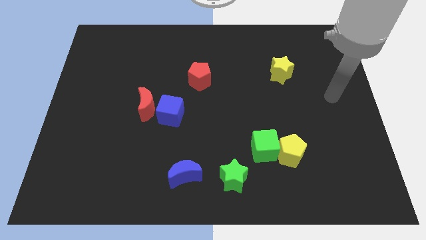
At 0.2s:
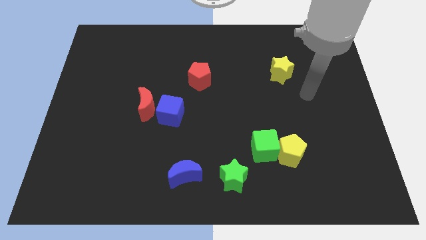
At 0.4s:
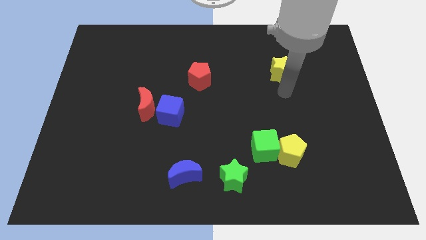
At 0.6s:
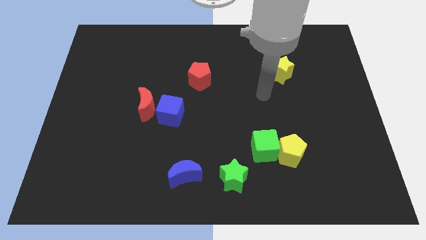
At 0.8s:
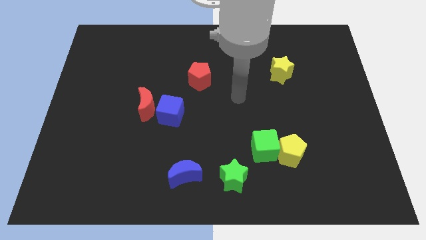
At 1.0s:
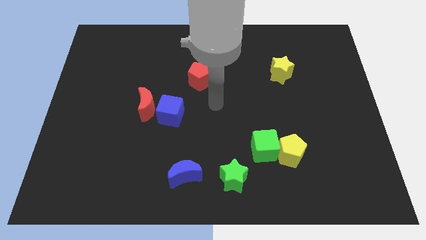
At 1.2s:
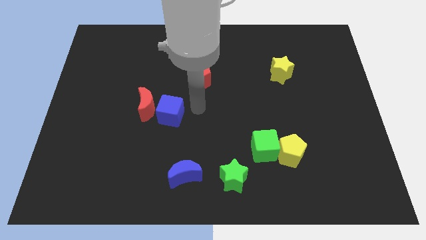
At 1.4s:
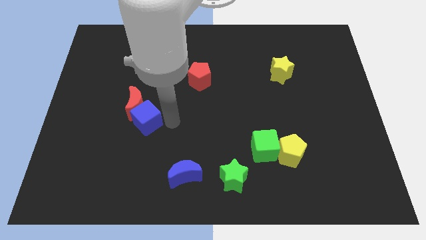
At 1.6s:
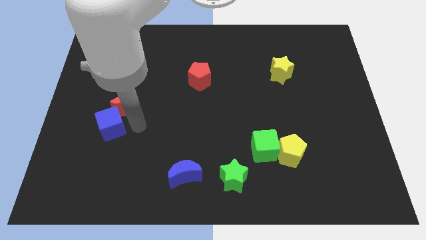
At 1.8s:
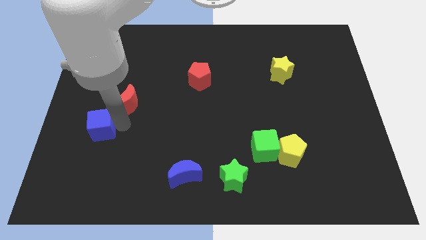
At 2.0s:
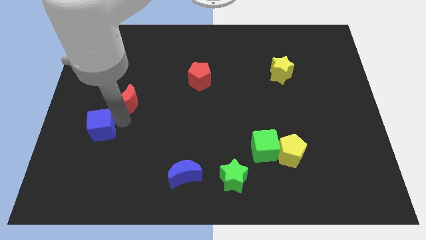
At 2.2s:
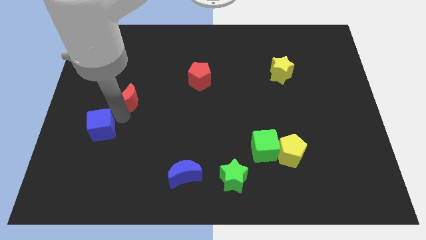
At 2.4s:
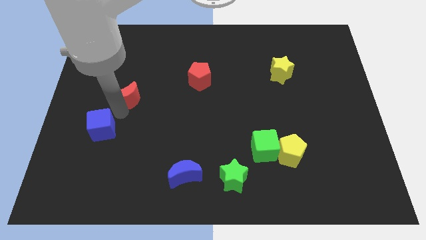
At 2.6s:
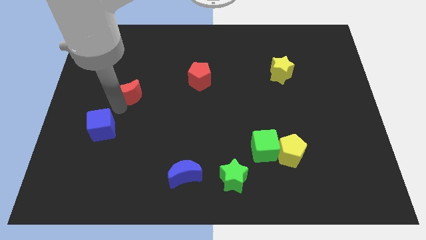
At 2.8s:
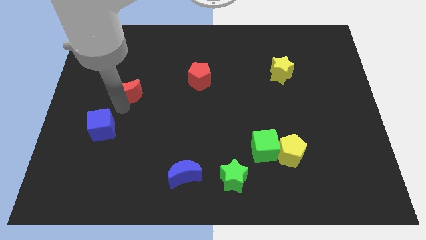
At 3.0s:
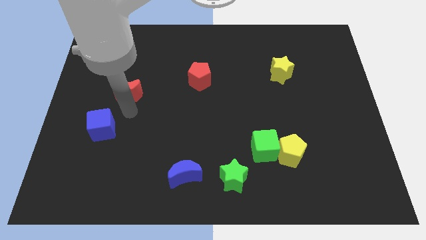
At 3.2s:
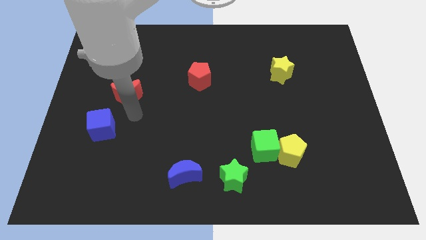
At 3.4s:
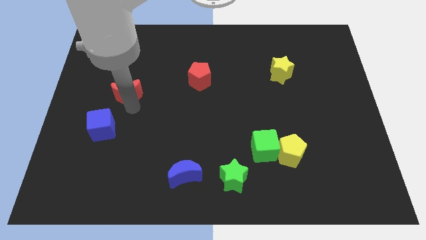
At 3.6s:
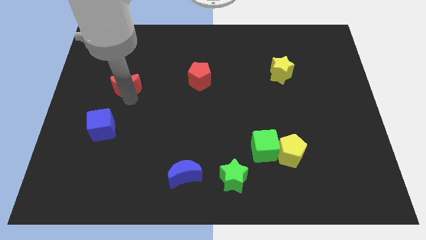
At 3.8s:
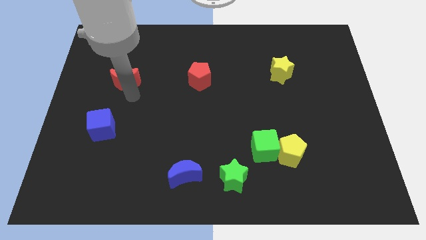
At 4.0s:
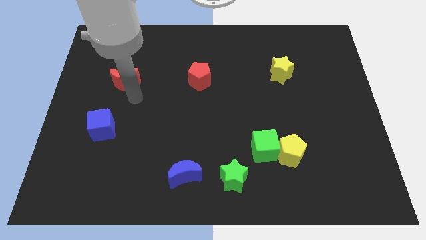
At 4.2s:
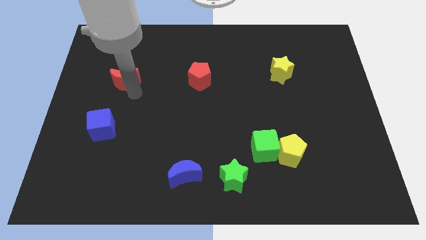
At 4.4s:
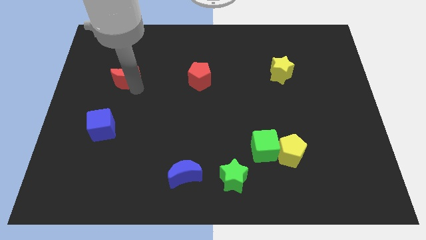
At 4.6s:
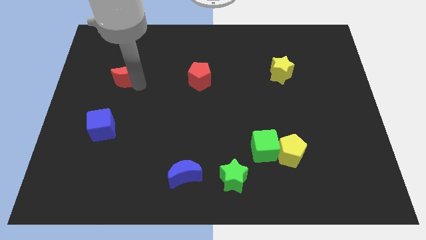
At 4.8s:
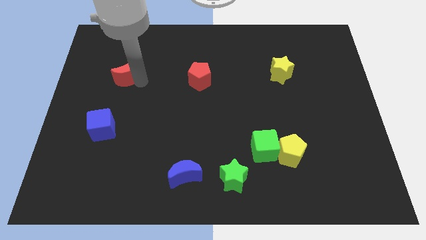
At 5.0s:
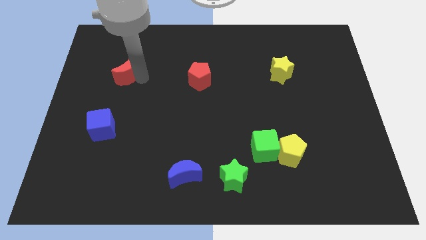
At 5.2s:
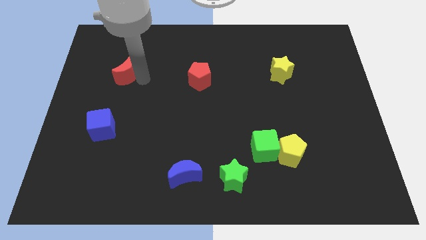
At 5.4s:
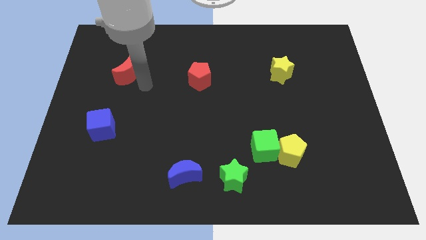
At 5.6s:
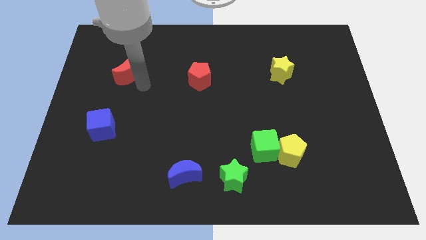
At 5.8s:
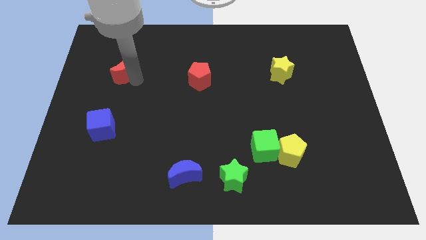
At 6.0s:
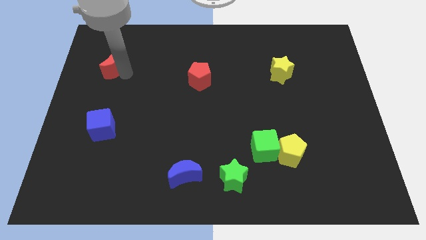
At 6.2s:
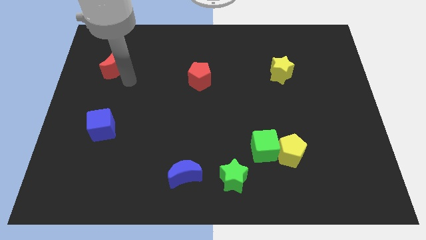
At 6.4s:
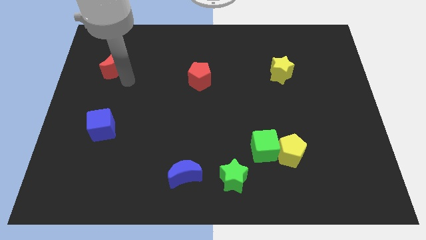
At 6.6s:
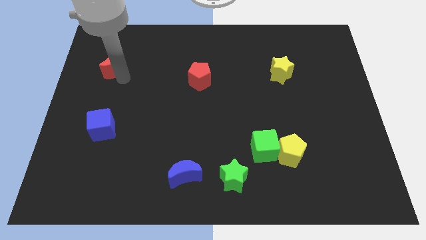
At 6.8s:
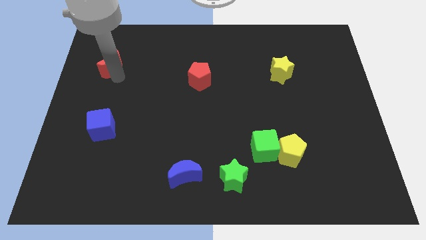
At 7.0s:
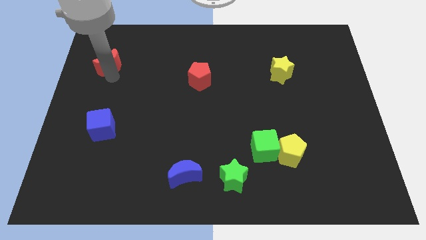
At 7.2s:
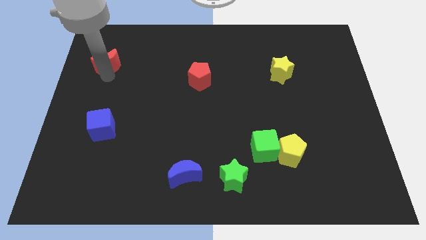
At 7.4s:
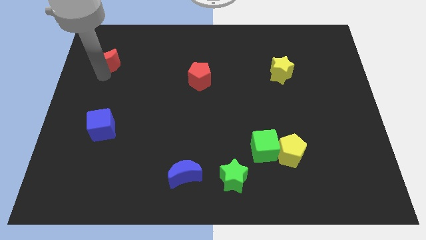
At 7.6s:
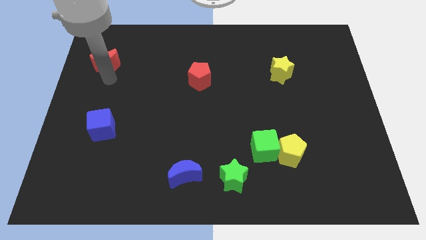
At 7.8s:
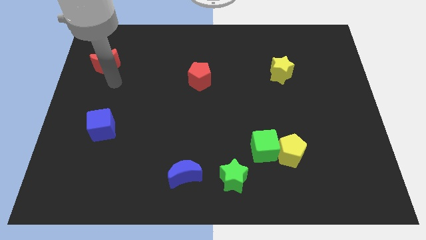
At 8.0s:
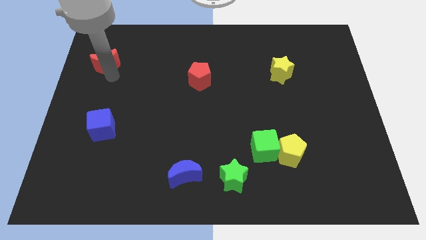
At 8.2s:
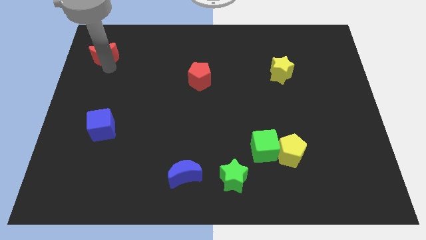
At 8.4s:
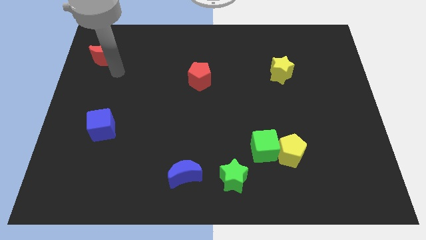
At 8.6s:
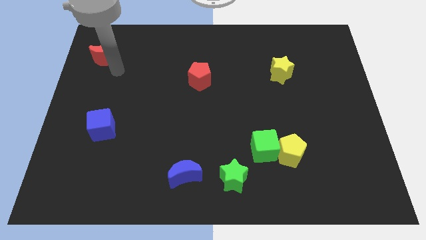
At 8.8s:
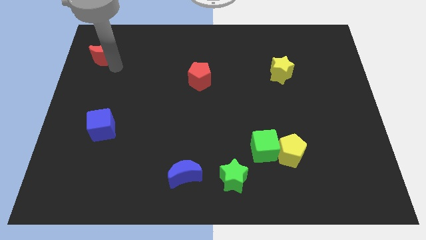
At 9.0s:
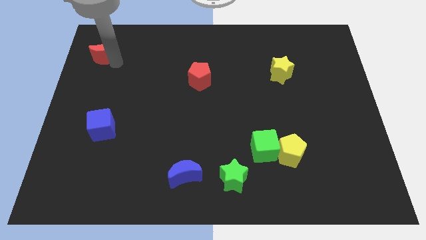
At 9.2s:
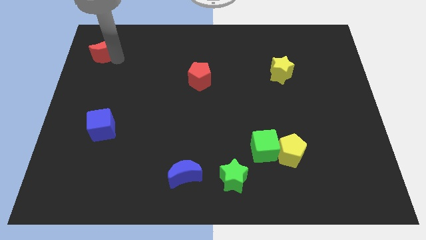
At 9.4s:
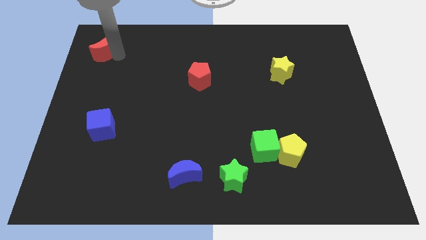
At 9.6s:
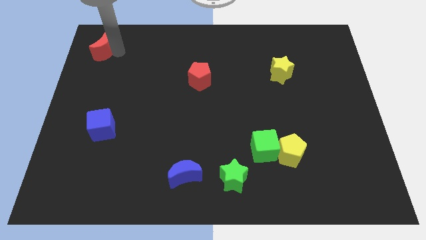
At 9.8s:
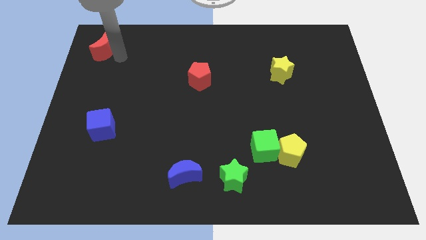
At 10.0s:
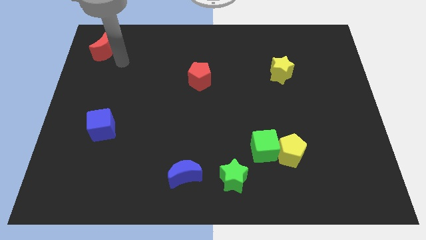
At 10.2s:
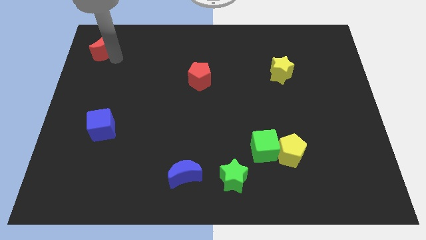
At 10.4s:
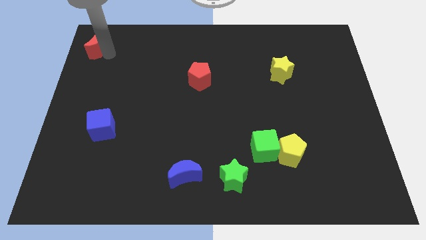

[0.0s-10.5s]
push the red moon to the upper left corner

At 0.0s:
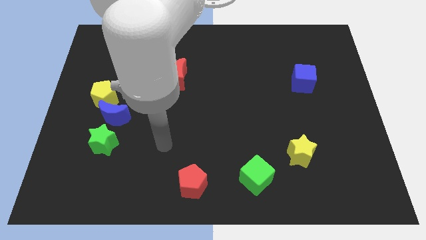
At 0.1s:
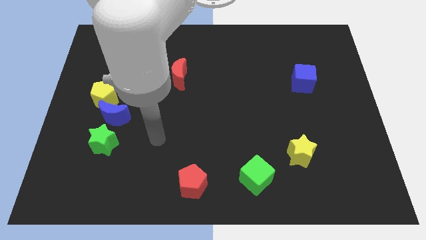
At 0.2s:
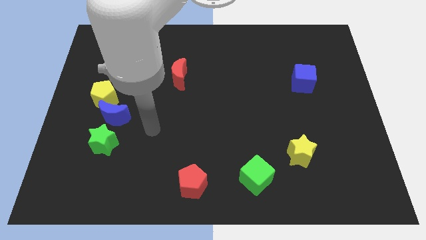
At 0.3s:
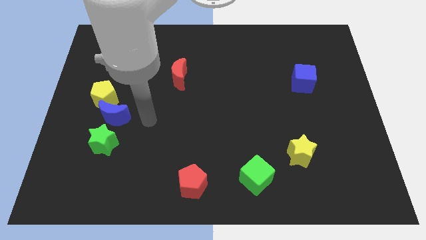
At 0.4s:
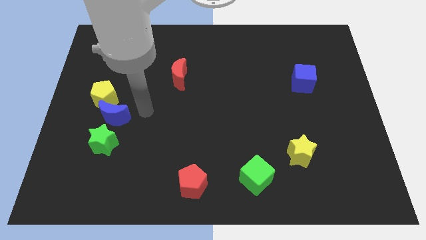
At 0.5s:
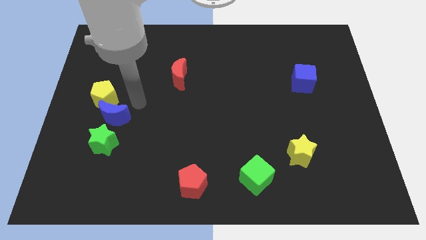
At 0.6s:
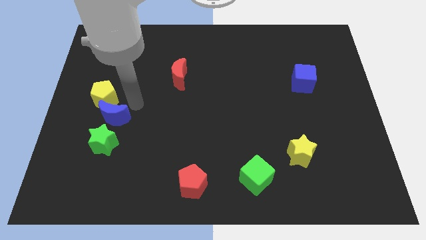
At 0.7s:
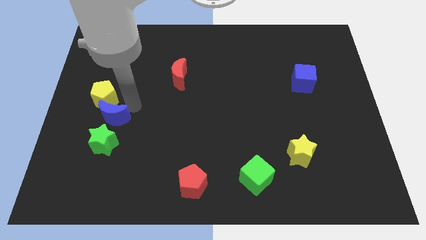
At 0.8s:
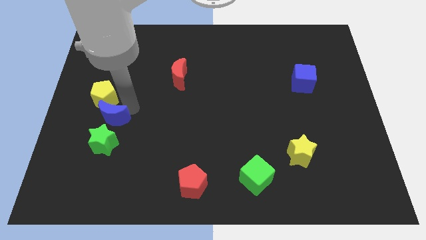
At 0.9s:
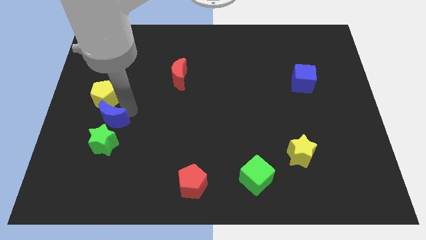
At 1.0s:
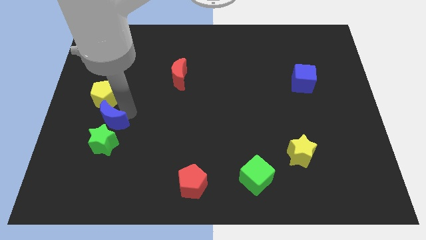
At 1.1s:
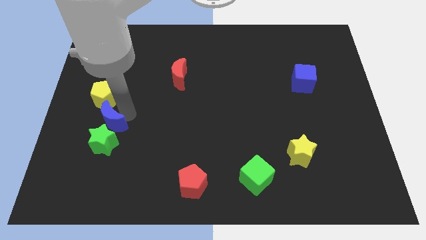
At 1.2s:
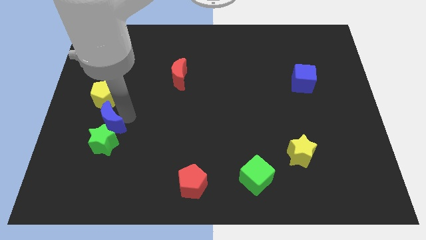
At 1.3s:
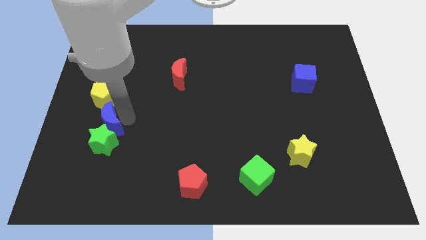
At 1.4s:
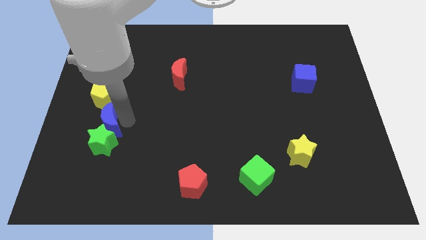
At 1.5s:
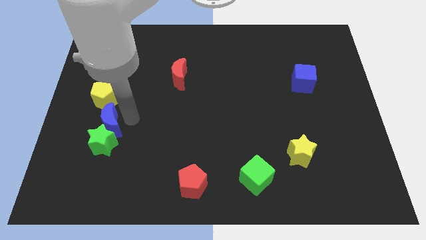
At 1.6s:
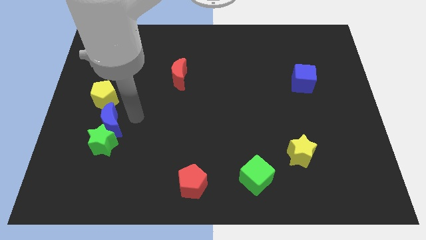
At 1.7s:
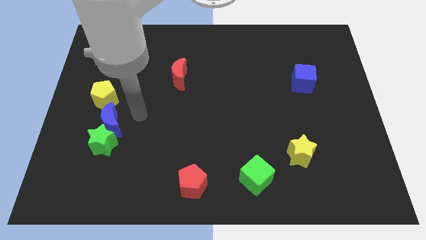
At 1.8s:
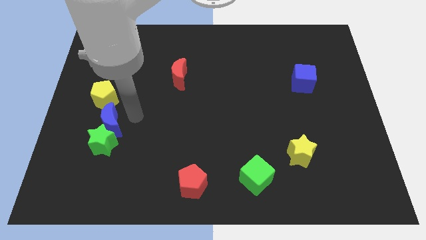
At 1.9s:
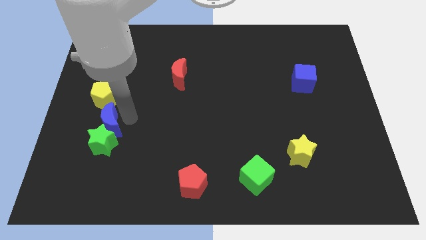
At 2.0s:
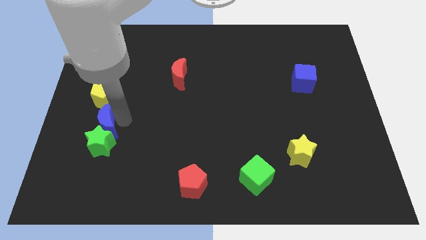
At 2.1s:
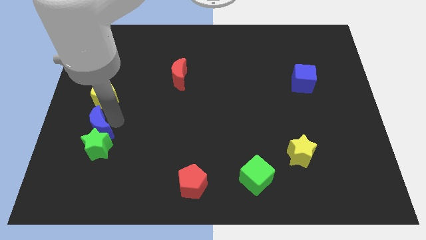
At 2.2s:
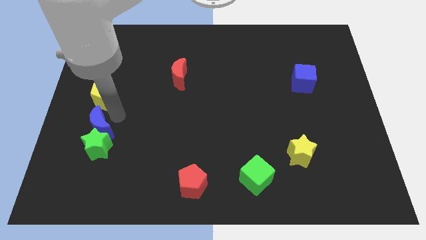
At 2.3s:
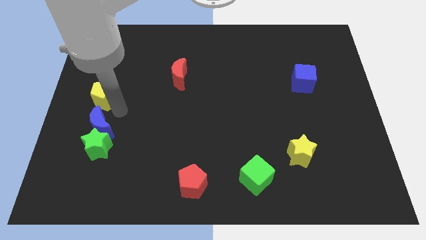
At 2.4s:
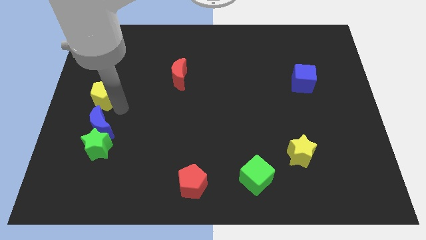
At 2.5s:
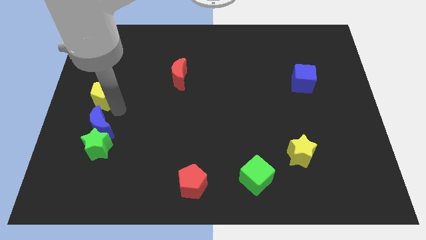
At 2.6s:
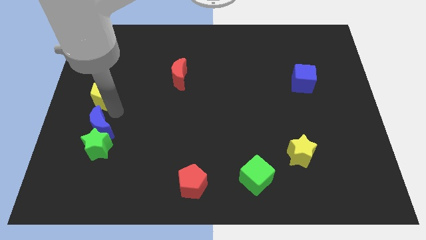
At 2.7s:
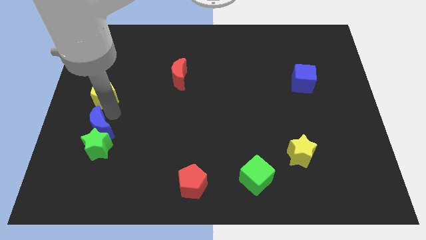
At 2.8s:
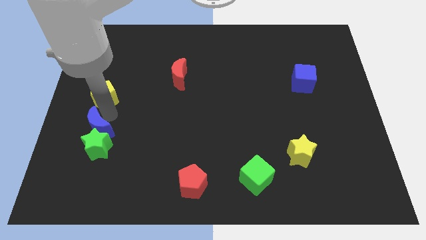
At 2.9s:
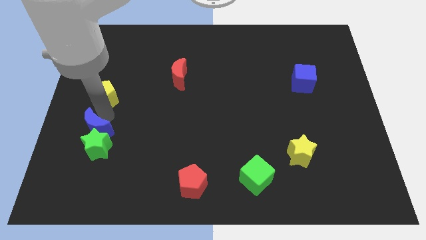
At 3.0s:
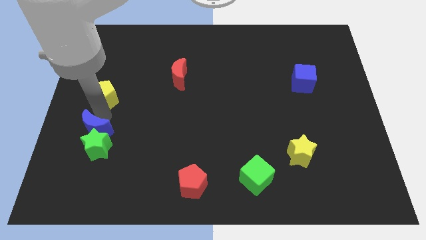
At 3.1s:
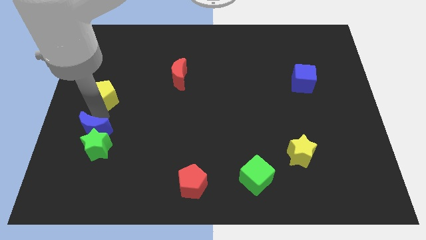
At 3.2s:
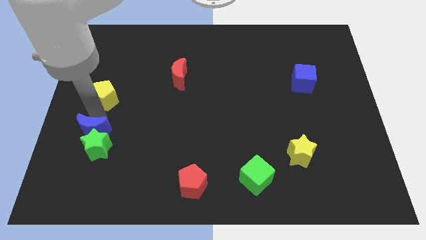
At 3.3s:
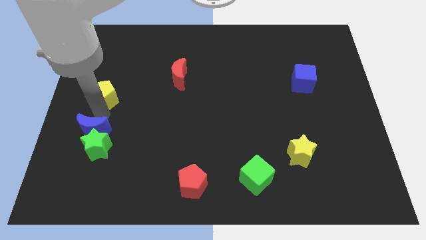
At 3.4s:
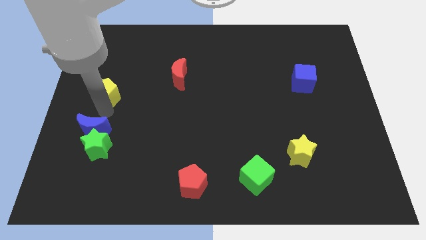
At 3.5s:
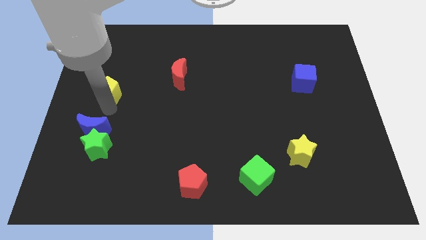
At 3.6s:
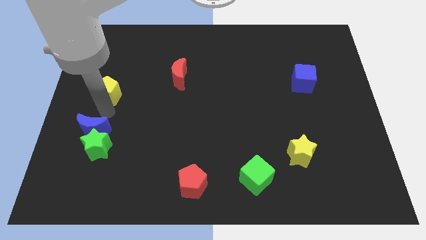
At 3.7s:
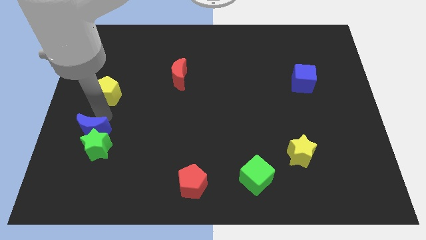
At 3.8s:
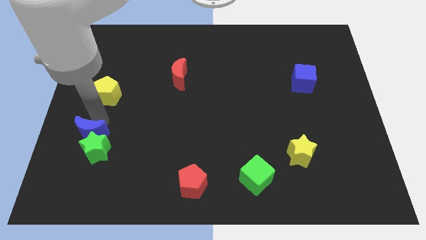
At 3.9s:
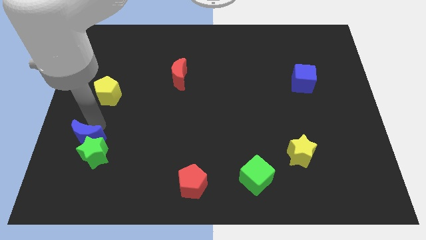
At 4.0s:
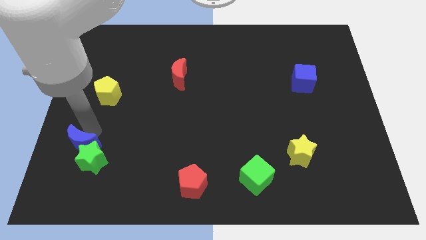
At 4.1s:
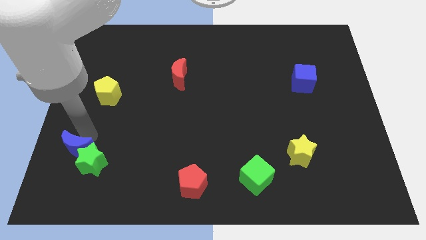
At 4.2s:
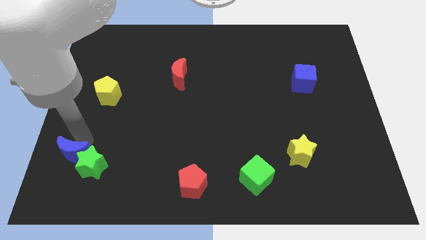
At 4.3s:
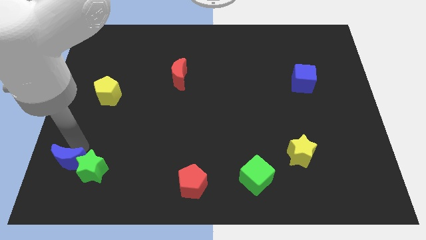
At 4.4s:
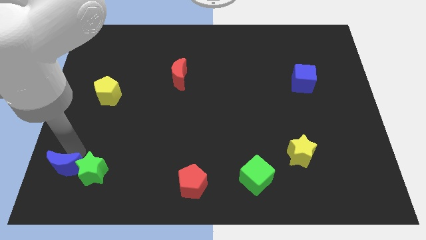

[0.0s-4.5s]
move the blue moon to the bottom left
